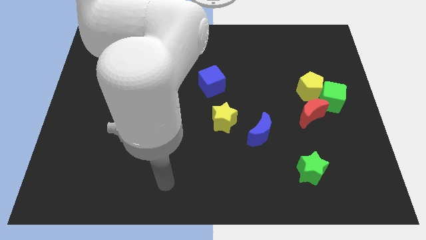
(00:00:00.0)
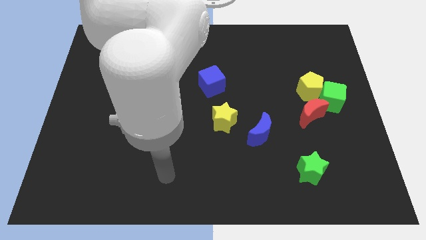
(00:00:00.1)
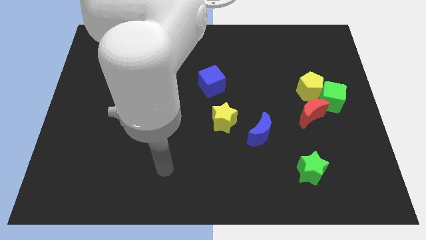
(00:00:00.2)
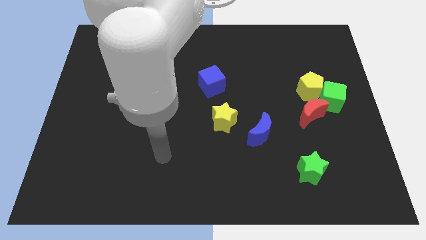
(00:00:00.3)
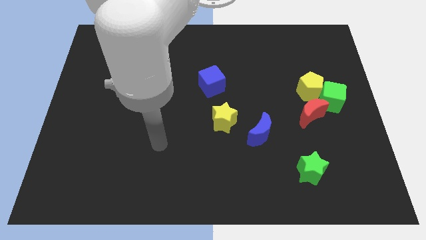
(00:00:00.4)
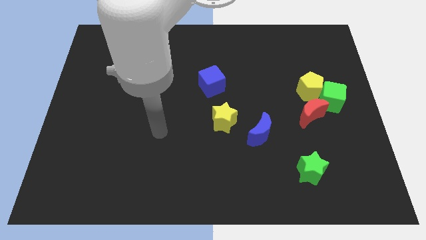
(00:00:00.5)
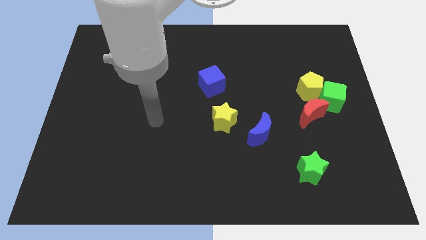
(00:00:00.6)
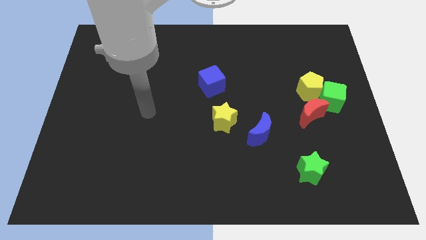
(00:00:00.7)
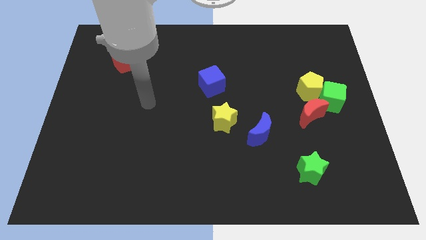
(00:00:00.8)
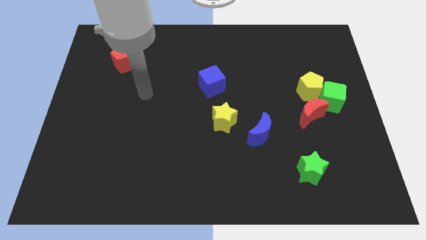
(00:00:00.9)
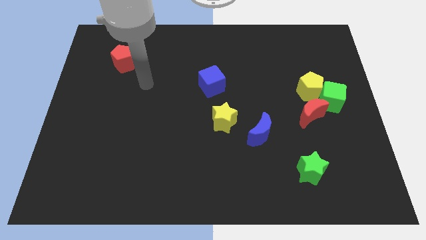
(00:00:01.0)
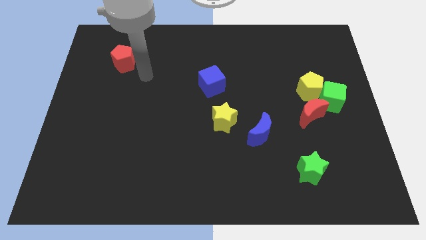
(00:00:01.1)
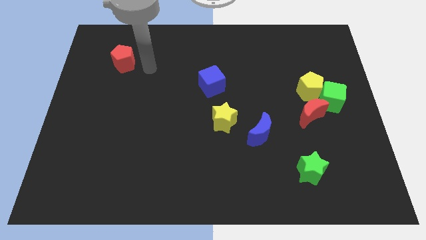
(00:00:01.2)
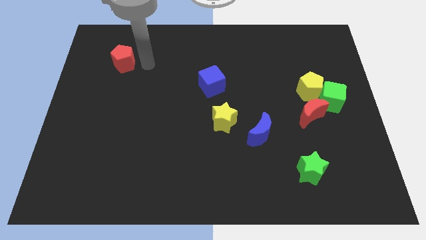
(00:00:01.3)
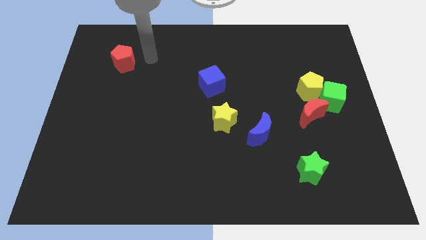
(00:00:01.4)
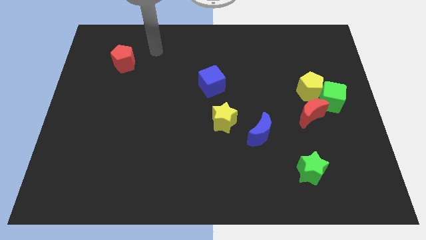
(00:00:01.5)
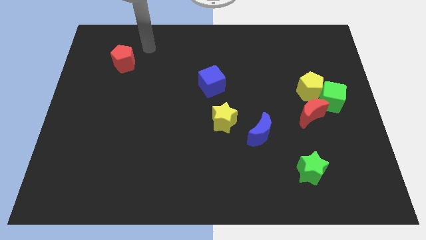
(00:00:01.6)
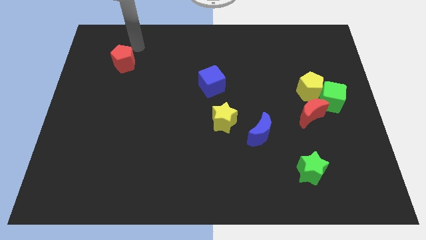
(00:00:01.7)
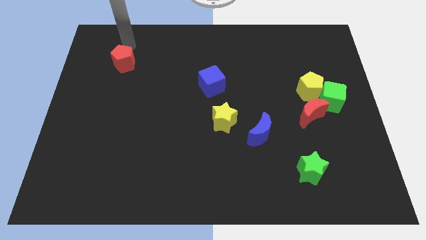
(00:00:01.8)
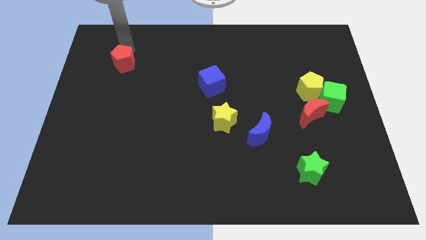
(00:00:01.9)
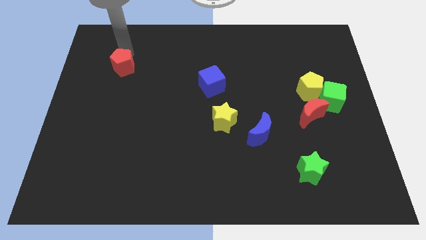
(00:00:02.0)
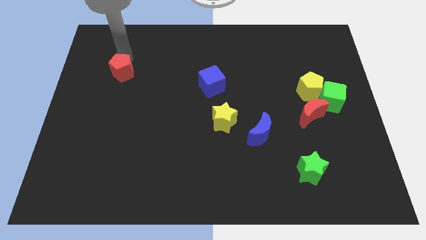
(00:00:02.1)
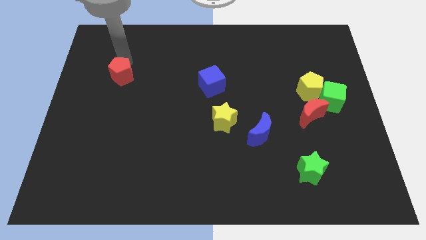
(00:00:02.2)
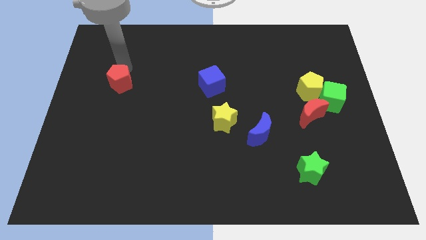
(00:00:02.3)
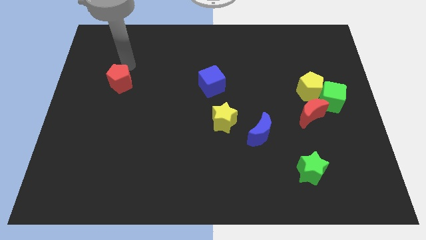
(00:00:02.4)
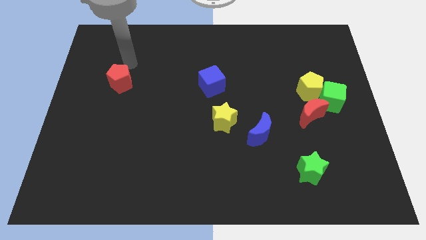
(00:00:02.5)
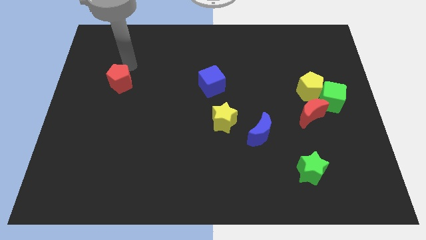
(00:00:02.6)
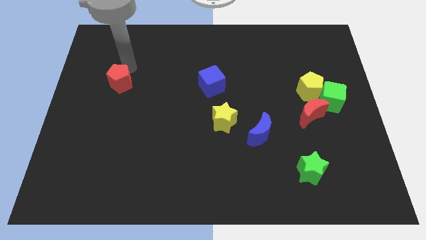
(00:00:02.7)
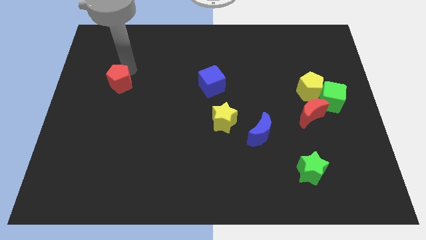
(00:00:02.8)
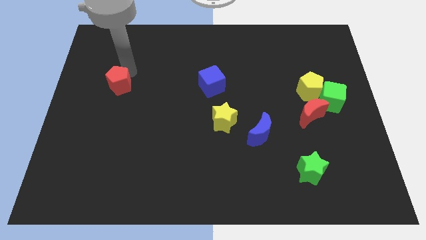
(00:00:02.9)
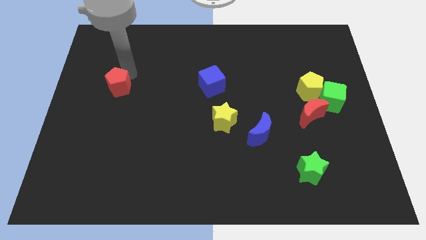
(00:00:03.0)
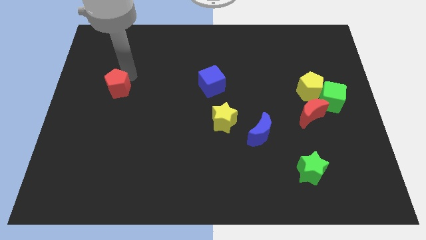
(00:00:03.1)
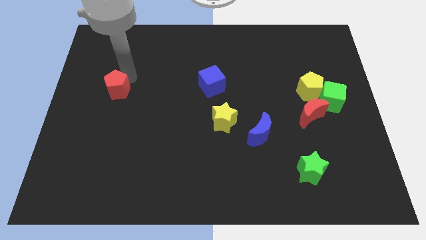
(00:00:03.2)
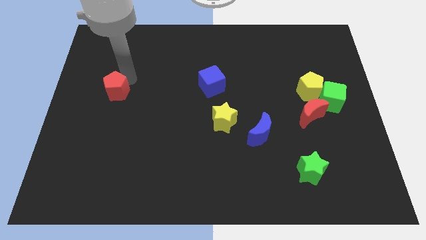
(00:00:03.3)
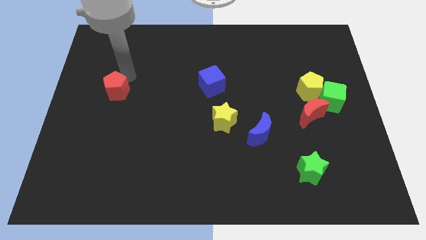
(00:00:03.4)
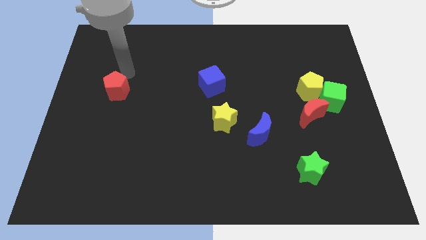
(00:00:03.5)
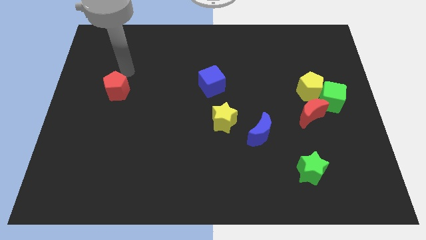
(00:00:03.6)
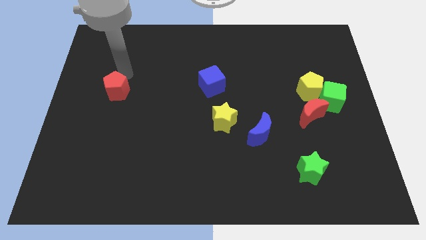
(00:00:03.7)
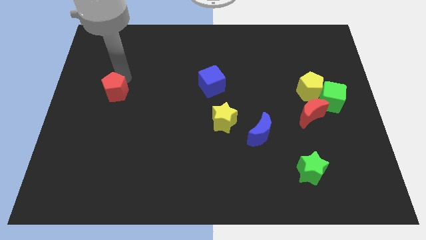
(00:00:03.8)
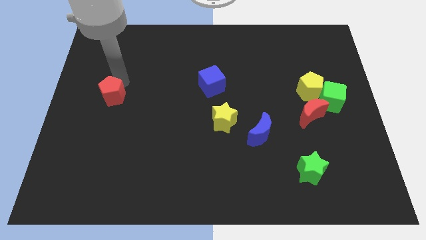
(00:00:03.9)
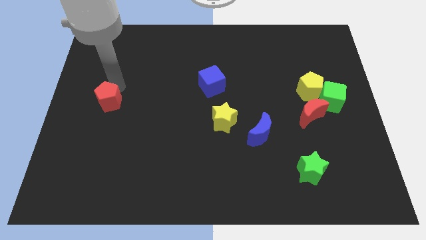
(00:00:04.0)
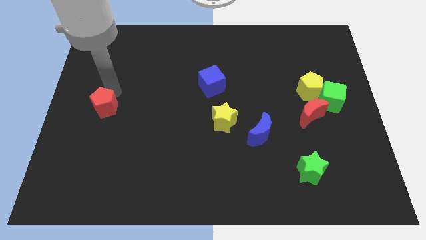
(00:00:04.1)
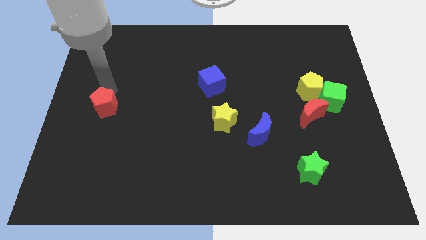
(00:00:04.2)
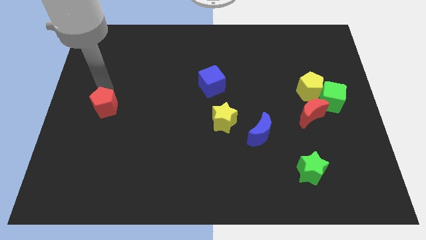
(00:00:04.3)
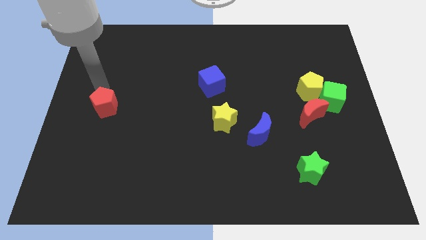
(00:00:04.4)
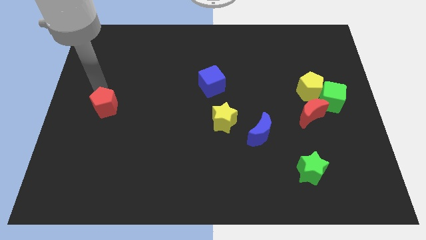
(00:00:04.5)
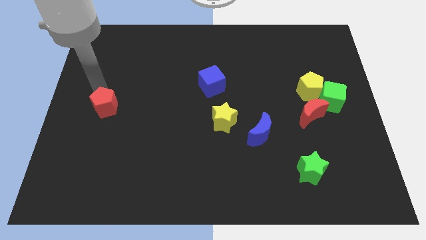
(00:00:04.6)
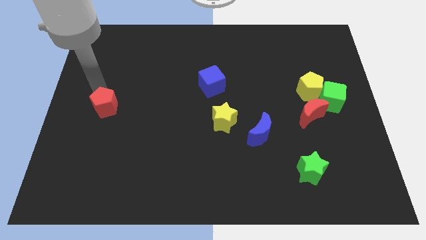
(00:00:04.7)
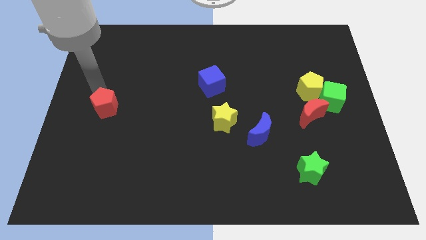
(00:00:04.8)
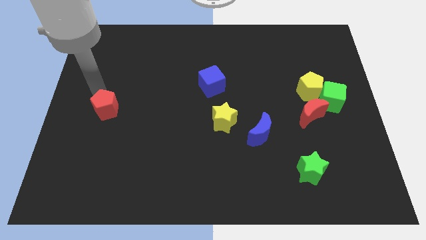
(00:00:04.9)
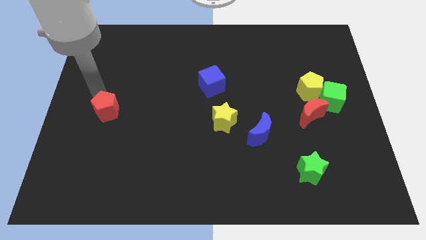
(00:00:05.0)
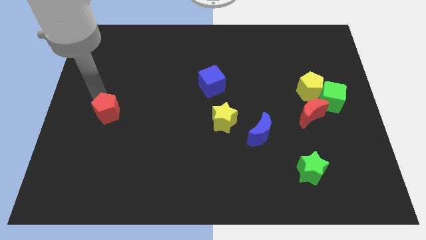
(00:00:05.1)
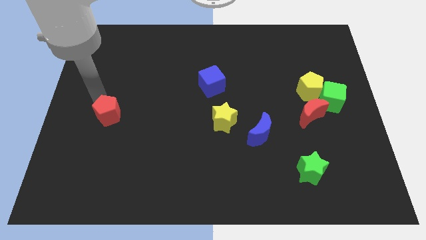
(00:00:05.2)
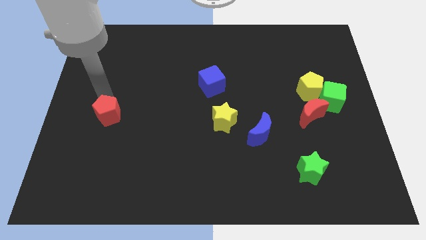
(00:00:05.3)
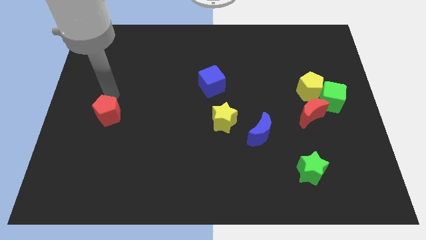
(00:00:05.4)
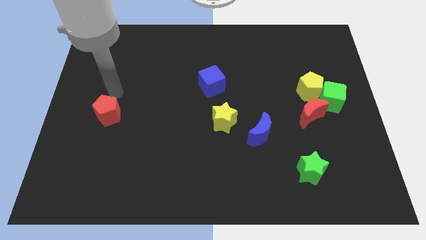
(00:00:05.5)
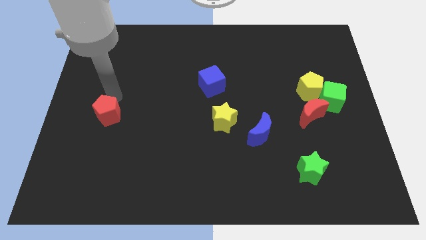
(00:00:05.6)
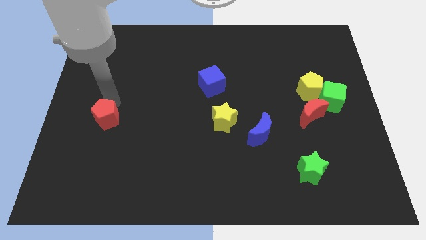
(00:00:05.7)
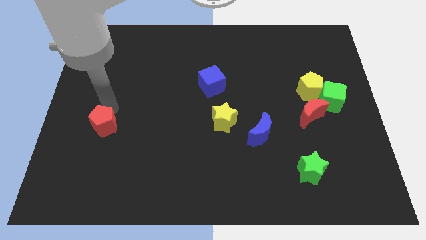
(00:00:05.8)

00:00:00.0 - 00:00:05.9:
slide the red pentagon downwards

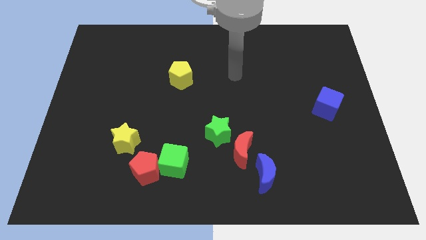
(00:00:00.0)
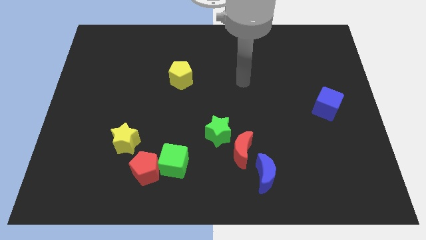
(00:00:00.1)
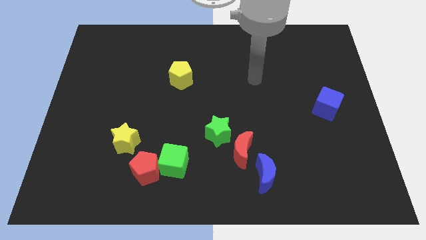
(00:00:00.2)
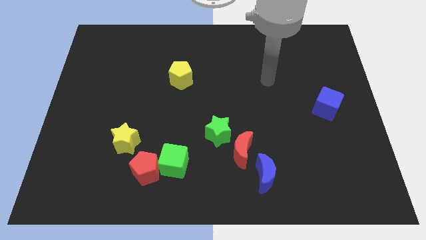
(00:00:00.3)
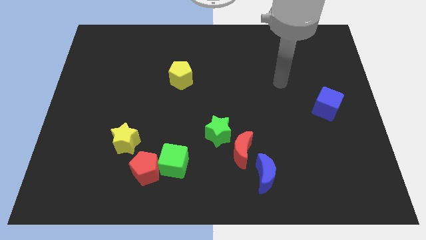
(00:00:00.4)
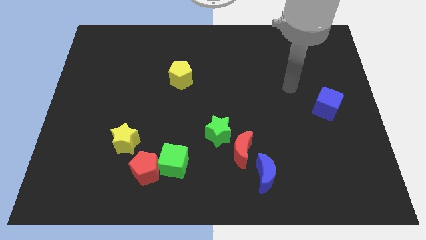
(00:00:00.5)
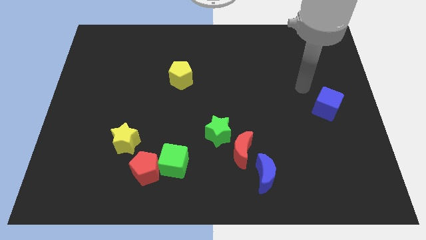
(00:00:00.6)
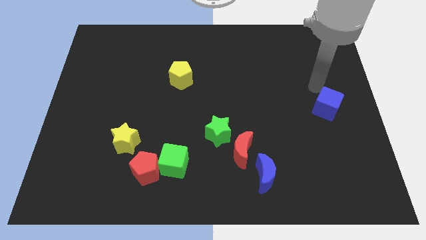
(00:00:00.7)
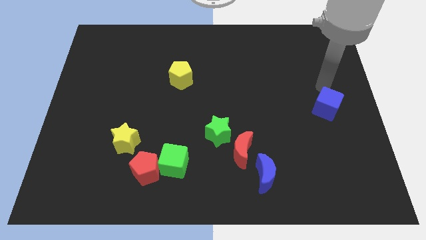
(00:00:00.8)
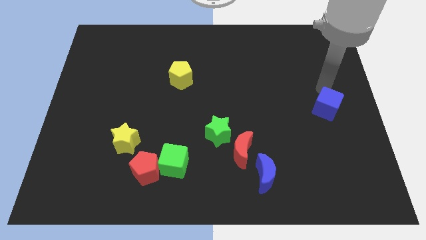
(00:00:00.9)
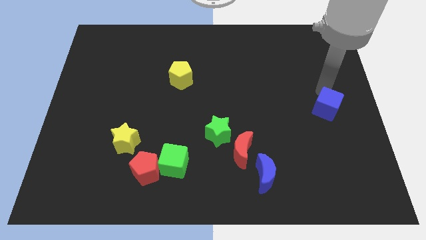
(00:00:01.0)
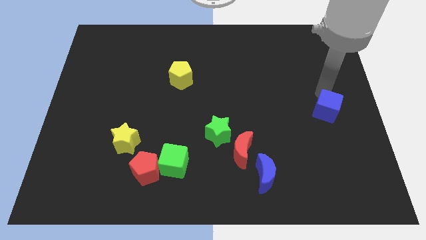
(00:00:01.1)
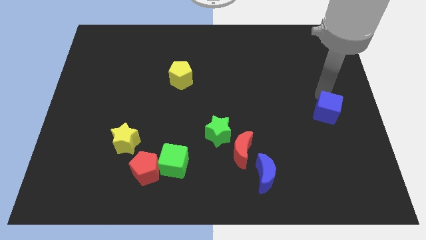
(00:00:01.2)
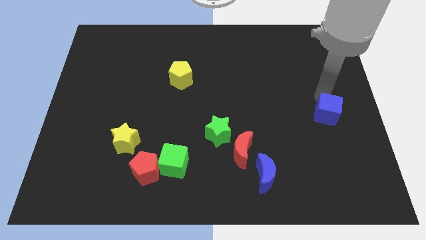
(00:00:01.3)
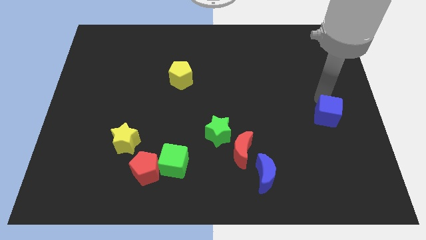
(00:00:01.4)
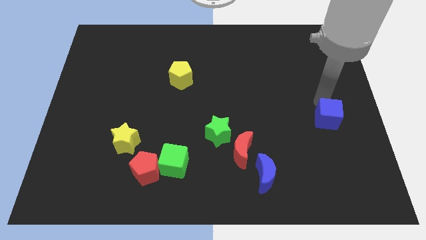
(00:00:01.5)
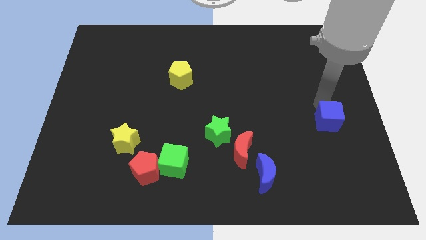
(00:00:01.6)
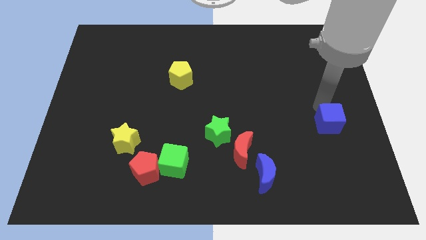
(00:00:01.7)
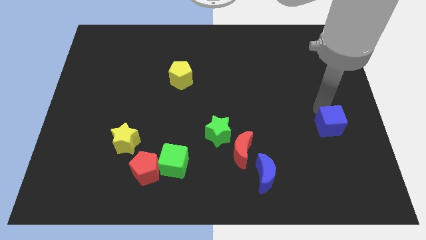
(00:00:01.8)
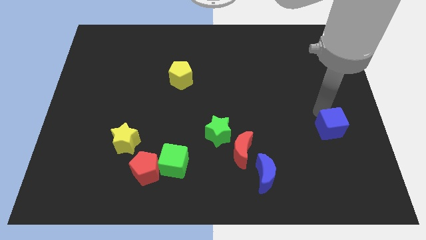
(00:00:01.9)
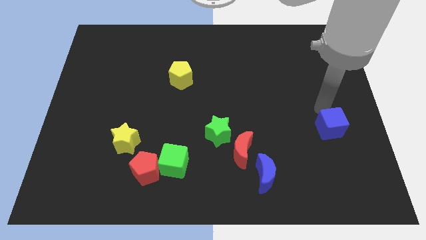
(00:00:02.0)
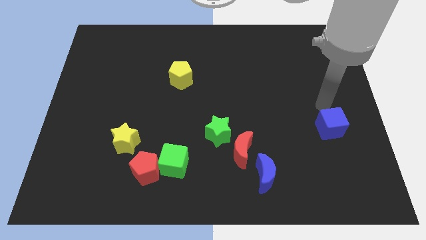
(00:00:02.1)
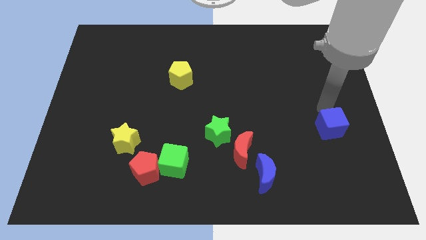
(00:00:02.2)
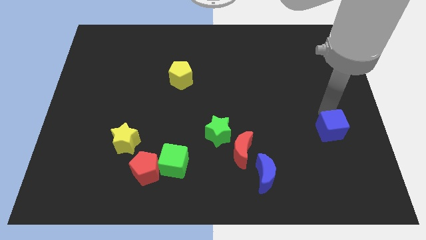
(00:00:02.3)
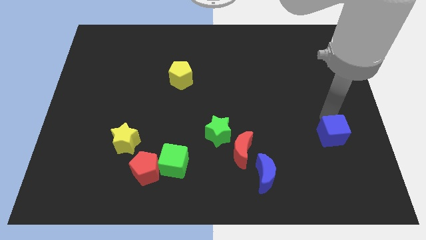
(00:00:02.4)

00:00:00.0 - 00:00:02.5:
slide the blue cube down slightly
